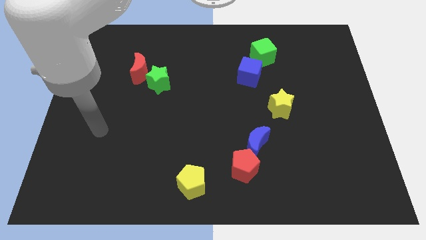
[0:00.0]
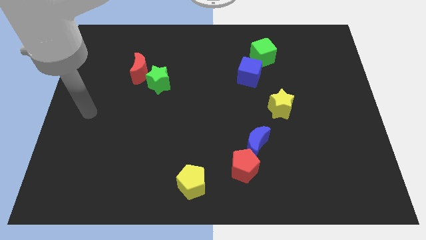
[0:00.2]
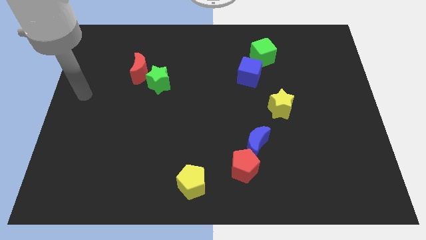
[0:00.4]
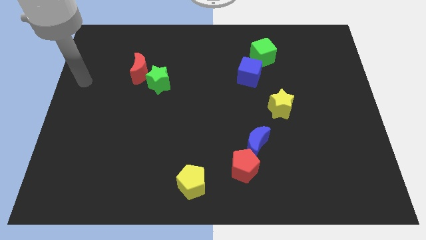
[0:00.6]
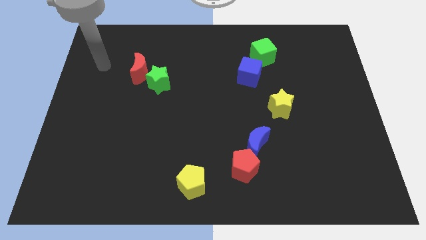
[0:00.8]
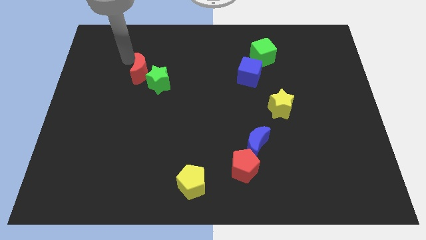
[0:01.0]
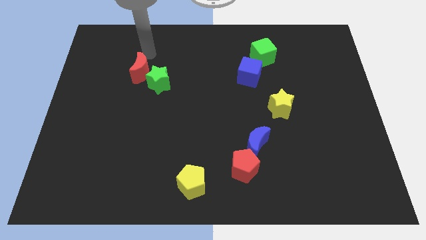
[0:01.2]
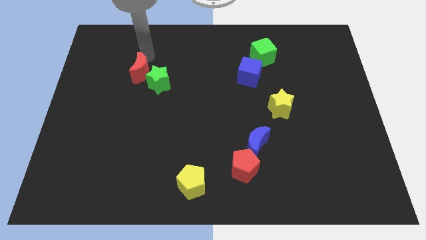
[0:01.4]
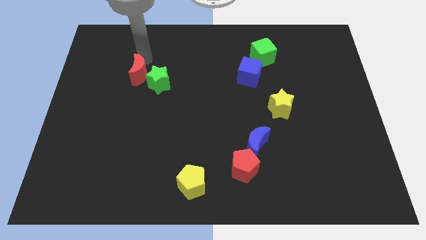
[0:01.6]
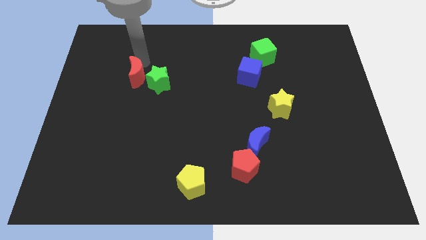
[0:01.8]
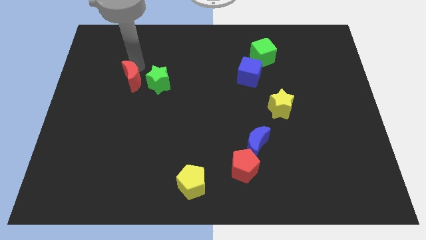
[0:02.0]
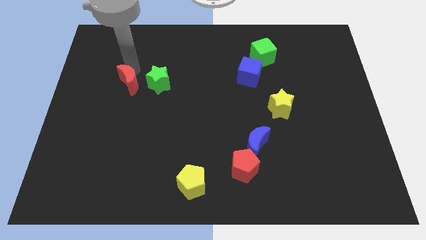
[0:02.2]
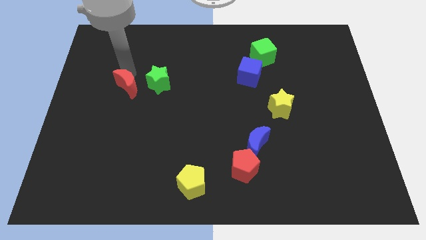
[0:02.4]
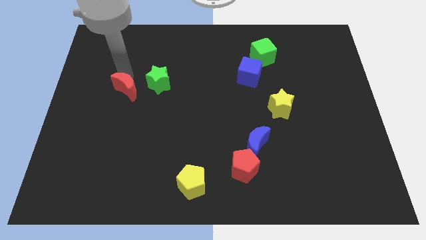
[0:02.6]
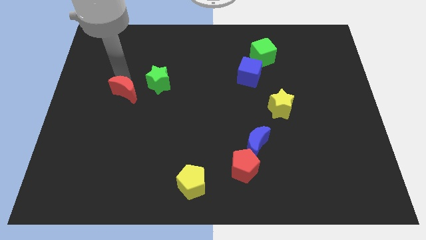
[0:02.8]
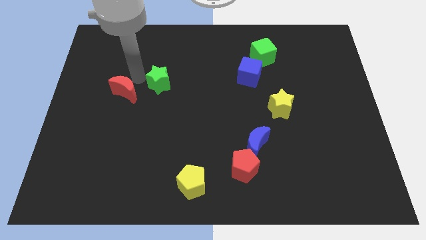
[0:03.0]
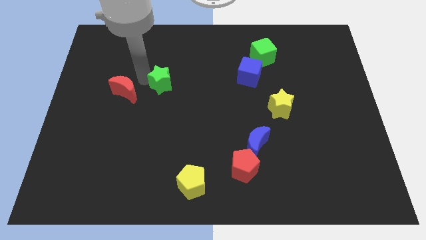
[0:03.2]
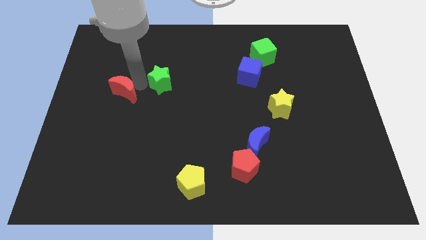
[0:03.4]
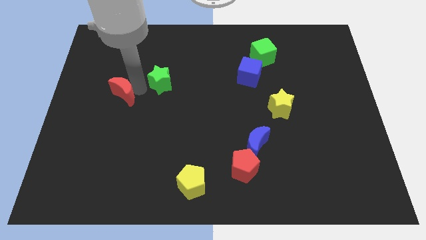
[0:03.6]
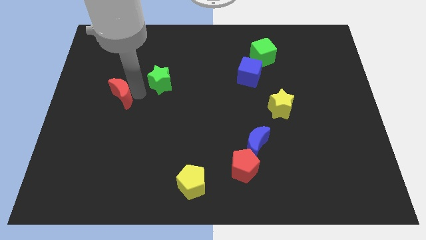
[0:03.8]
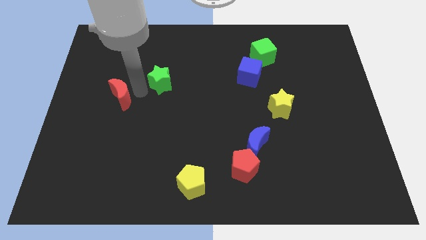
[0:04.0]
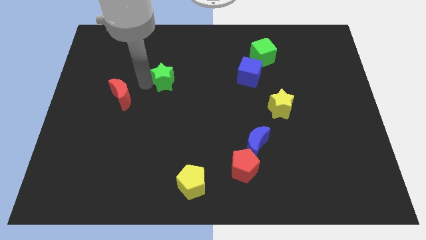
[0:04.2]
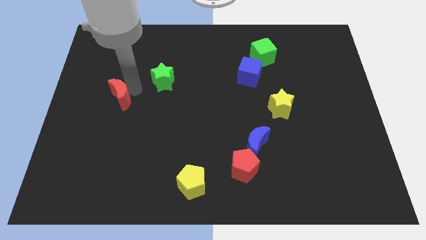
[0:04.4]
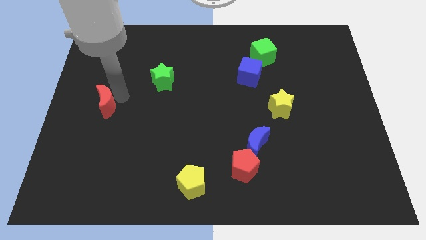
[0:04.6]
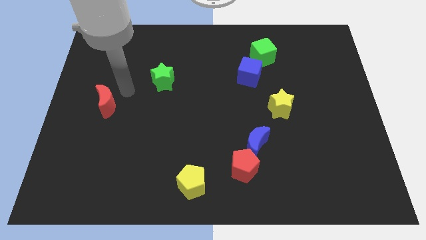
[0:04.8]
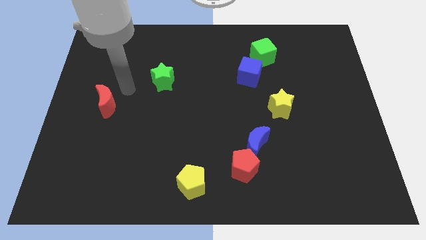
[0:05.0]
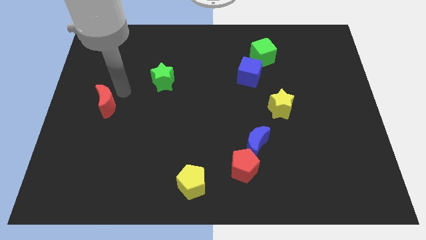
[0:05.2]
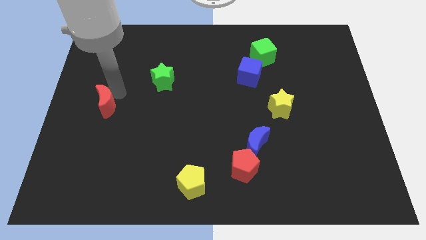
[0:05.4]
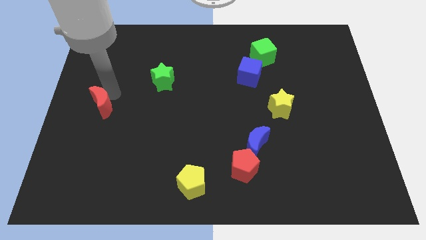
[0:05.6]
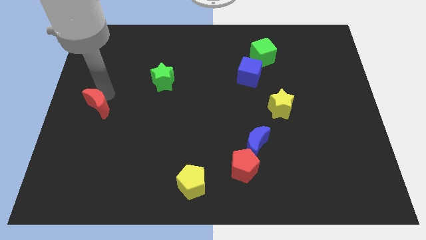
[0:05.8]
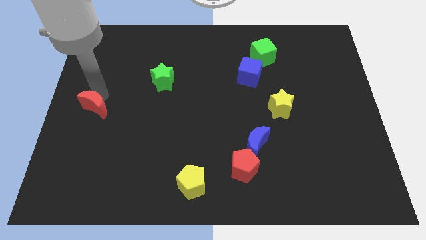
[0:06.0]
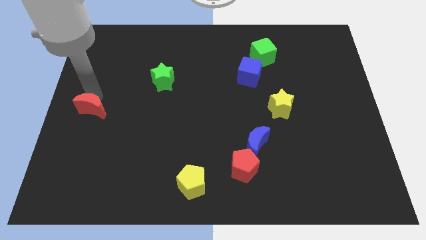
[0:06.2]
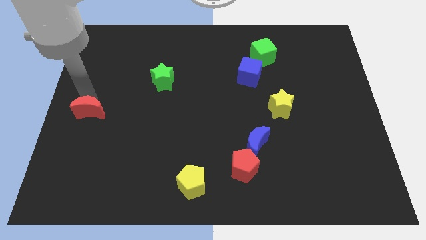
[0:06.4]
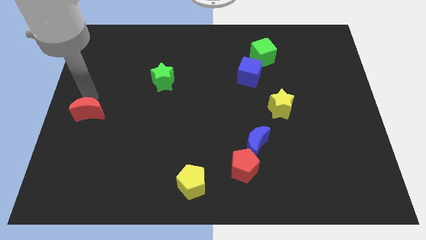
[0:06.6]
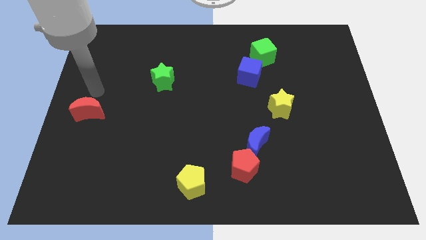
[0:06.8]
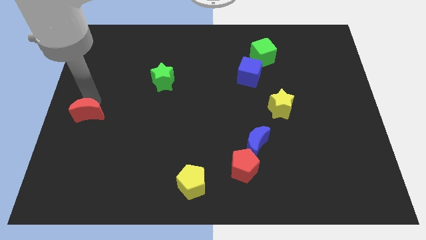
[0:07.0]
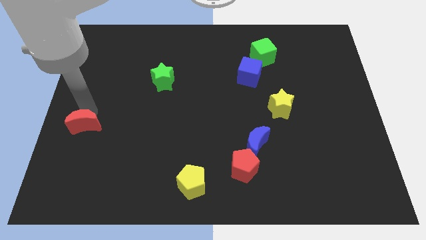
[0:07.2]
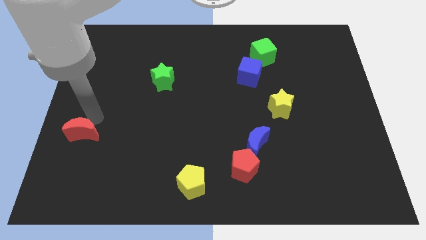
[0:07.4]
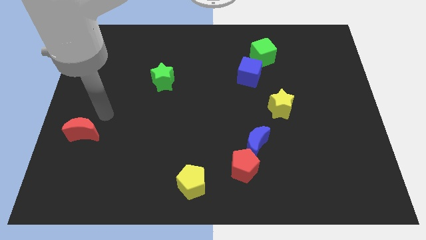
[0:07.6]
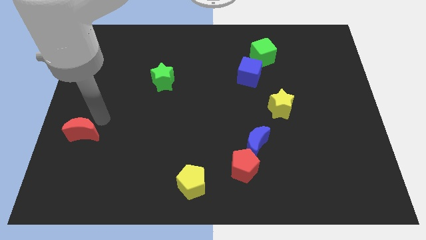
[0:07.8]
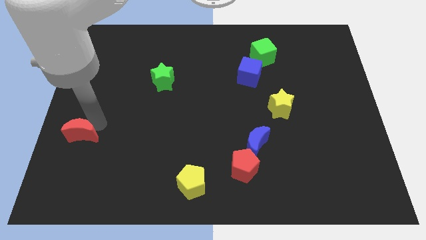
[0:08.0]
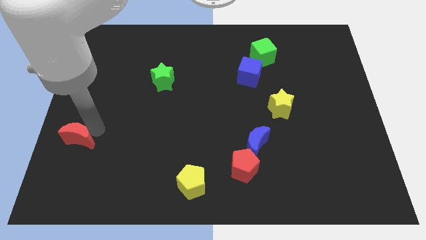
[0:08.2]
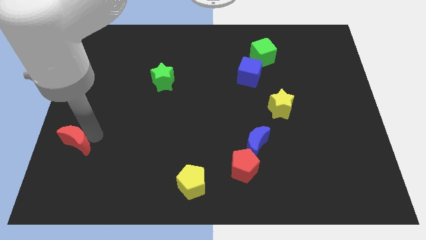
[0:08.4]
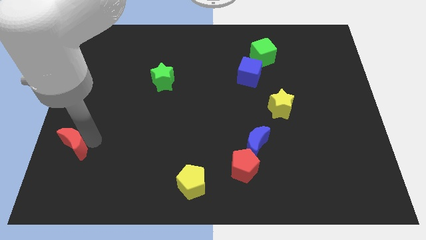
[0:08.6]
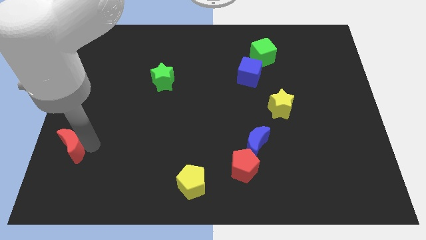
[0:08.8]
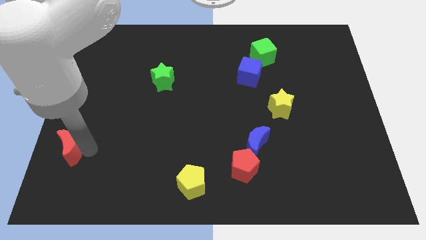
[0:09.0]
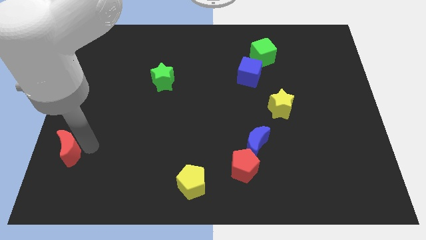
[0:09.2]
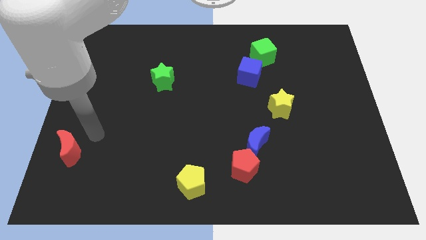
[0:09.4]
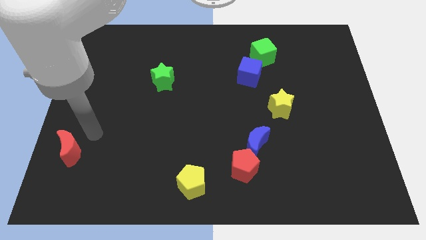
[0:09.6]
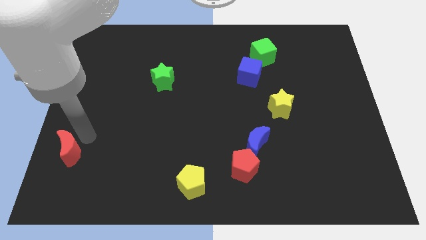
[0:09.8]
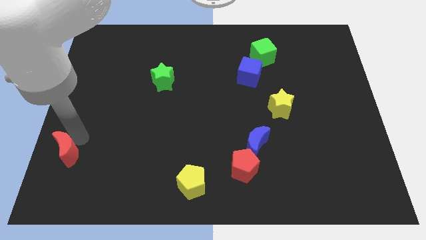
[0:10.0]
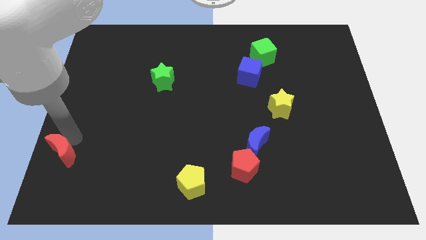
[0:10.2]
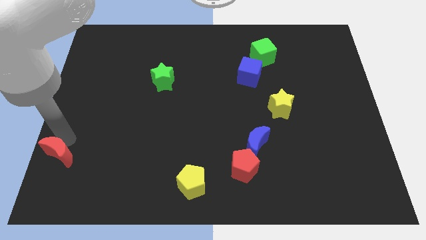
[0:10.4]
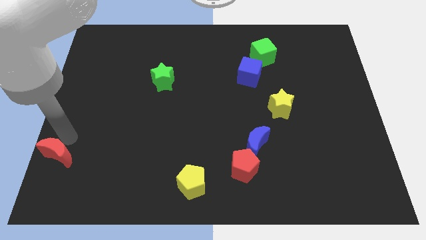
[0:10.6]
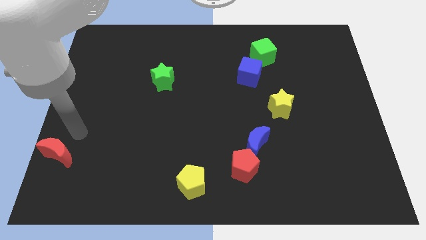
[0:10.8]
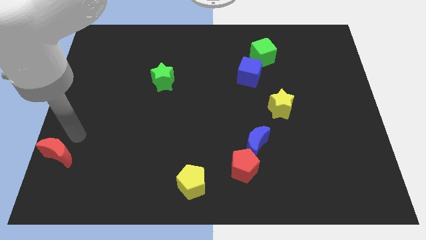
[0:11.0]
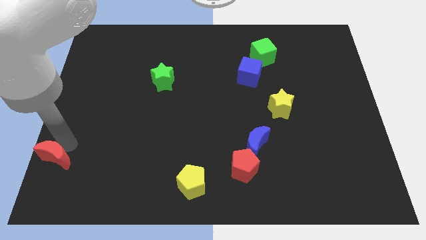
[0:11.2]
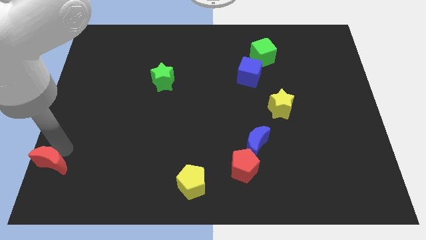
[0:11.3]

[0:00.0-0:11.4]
push the red moon to the bottom left of the board
